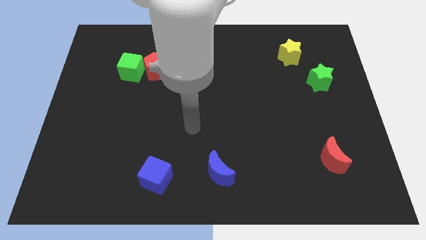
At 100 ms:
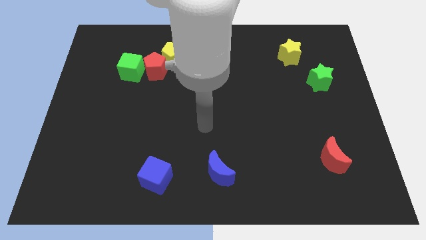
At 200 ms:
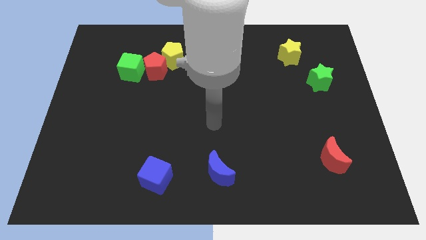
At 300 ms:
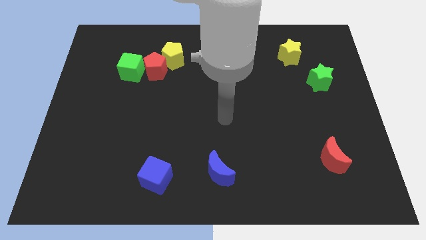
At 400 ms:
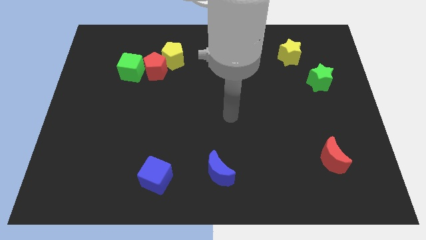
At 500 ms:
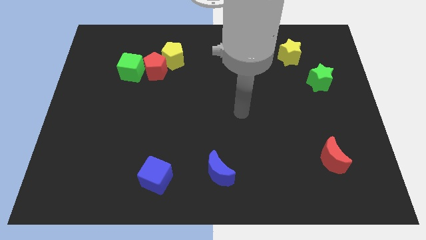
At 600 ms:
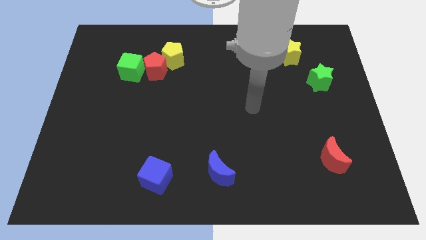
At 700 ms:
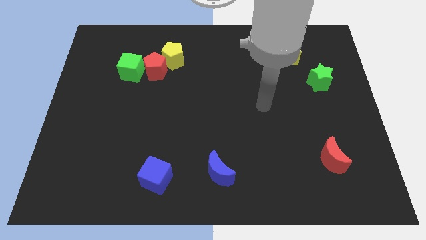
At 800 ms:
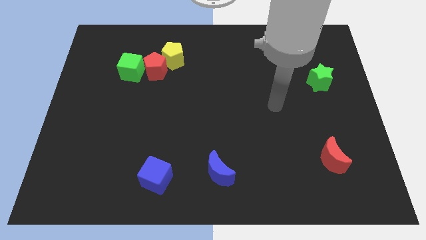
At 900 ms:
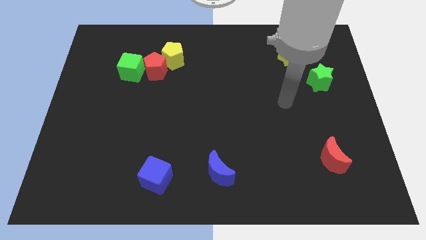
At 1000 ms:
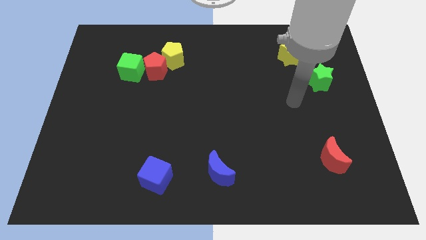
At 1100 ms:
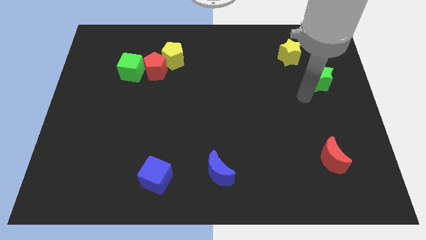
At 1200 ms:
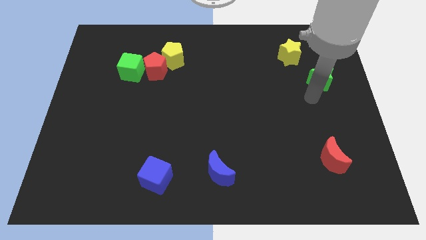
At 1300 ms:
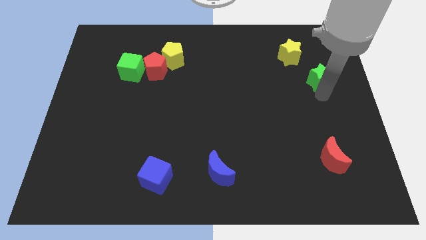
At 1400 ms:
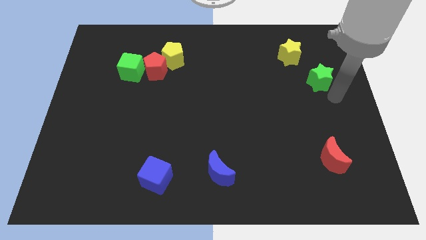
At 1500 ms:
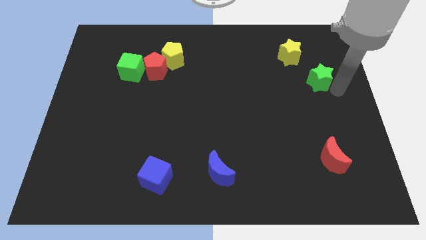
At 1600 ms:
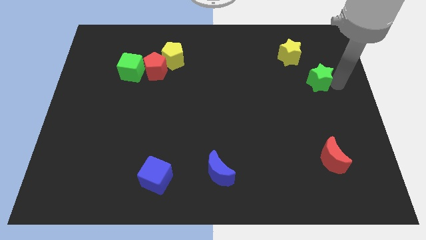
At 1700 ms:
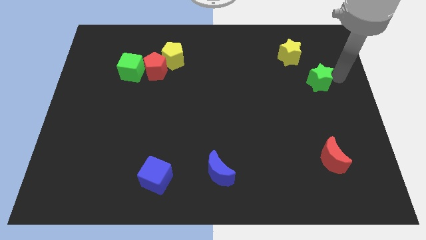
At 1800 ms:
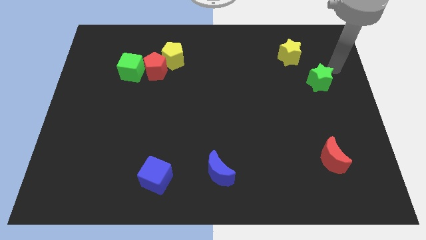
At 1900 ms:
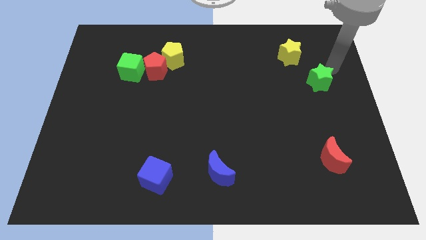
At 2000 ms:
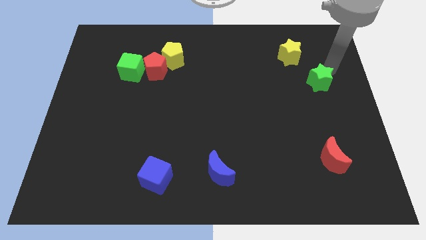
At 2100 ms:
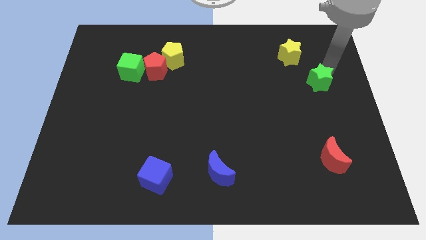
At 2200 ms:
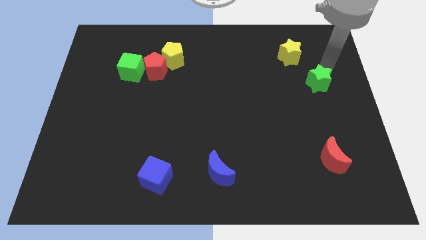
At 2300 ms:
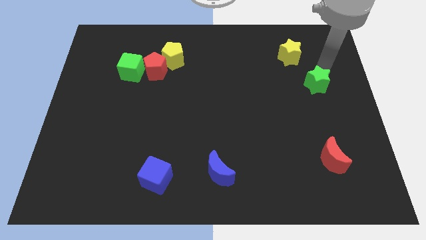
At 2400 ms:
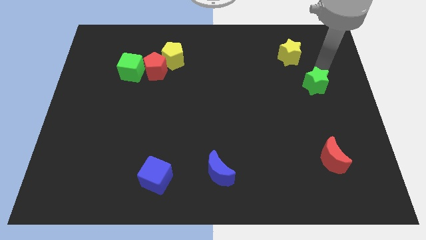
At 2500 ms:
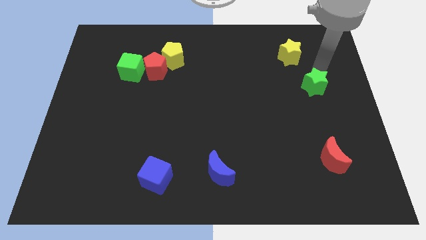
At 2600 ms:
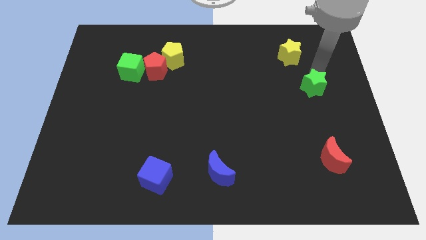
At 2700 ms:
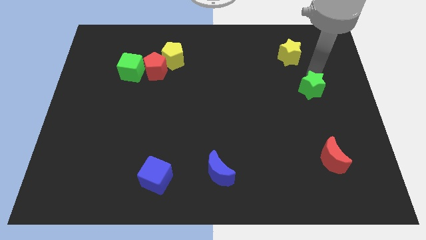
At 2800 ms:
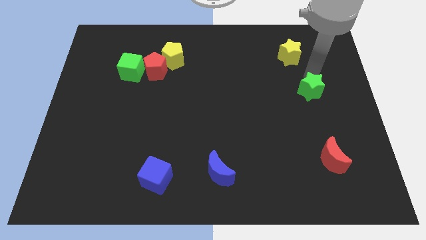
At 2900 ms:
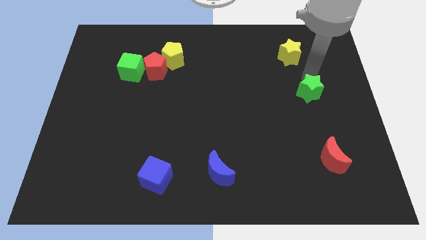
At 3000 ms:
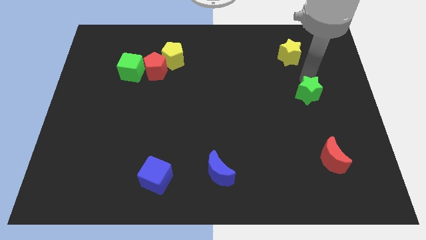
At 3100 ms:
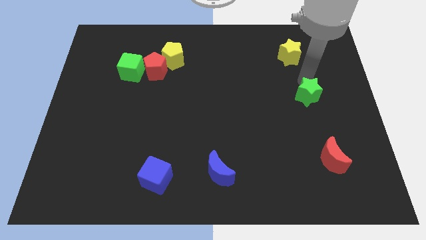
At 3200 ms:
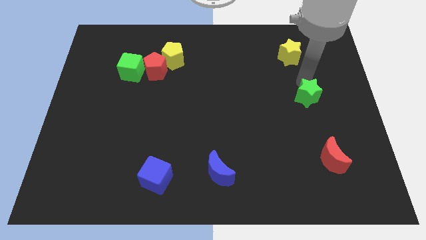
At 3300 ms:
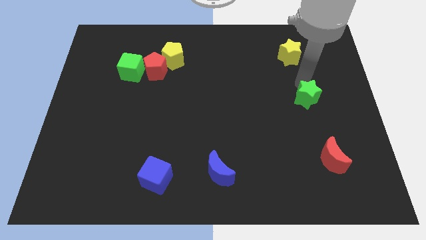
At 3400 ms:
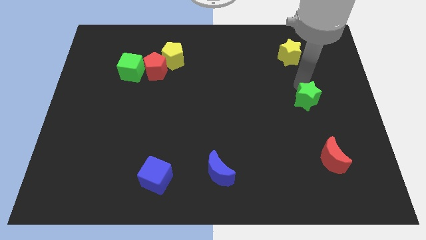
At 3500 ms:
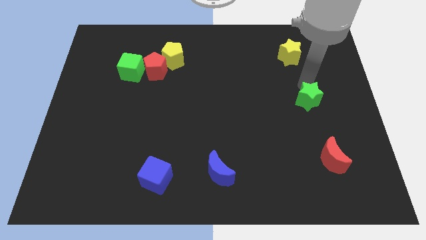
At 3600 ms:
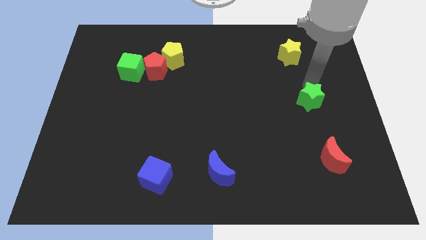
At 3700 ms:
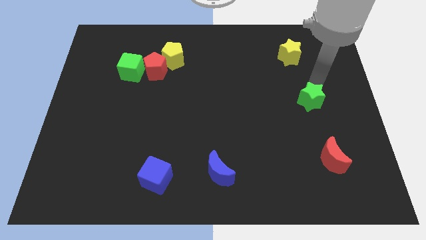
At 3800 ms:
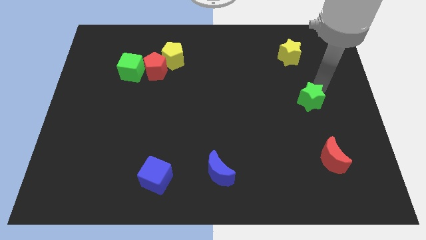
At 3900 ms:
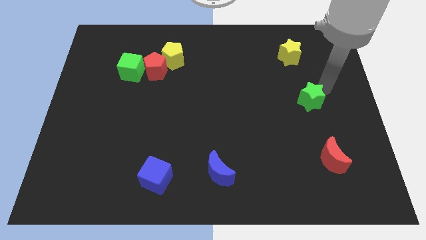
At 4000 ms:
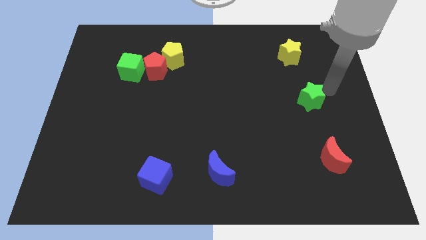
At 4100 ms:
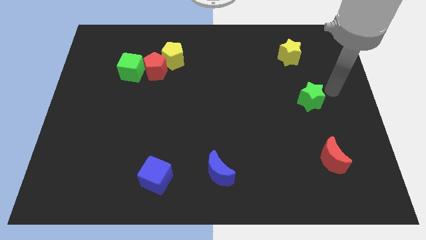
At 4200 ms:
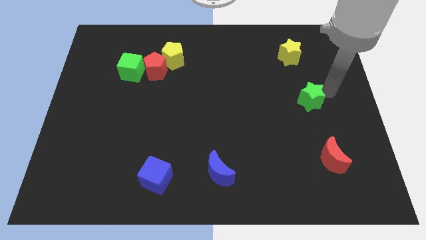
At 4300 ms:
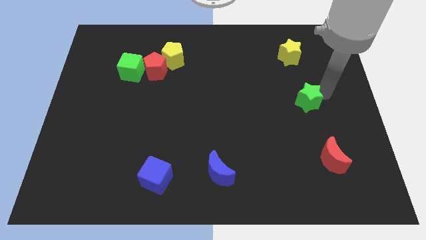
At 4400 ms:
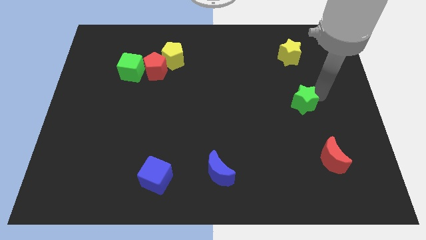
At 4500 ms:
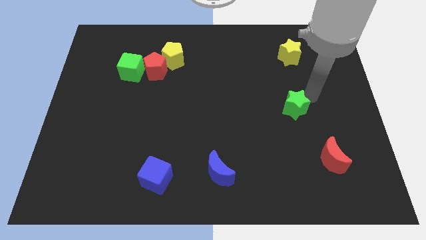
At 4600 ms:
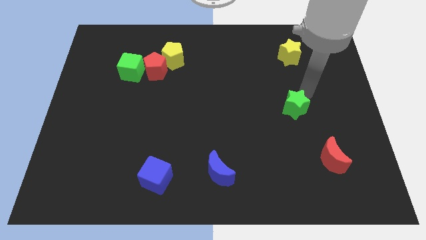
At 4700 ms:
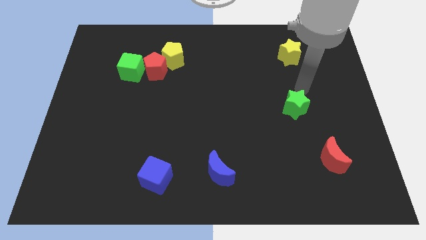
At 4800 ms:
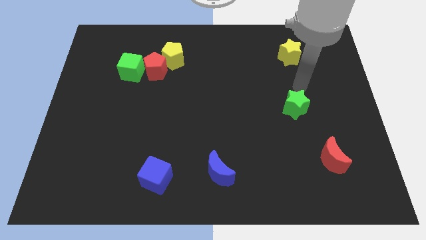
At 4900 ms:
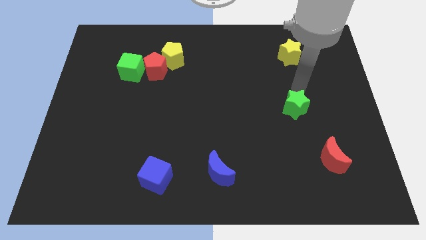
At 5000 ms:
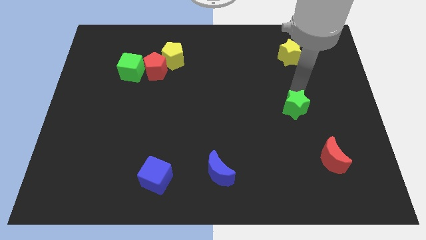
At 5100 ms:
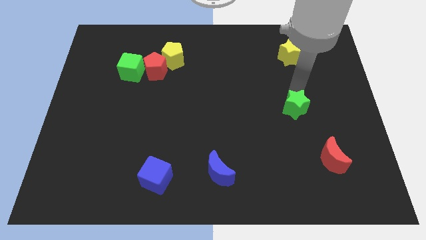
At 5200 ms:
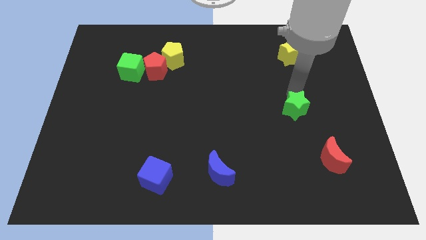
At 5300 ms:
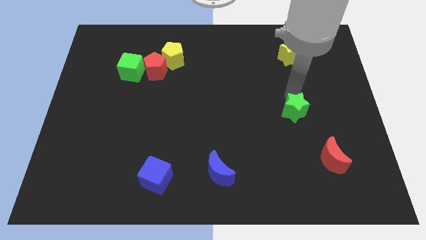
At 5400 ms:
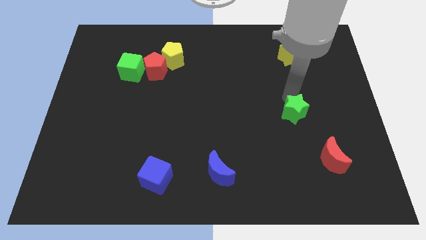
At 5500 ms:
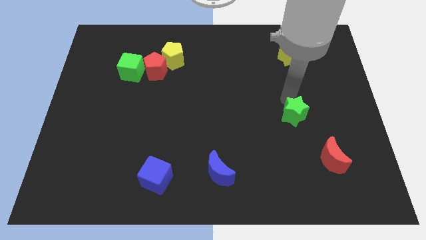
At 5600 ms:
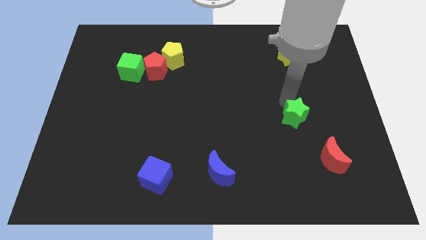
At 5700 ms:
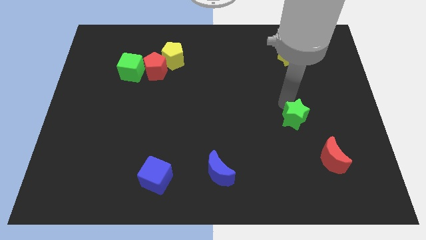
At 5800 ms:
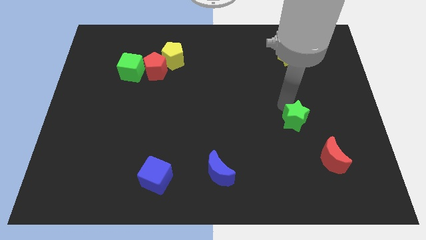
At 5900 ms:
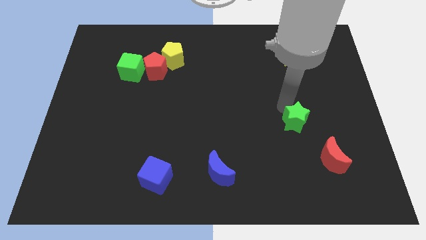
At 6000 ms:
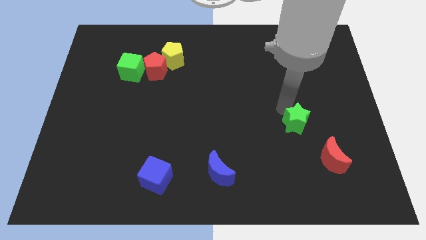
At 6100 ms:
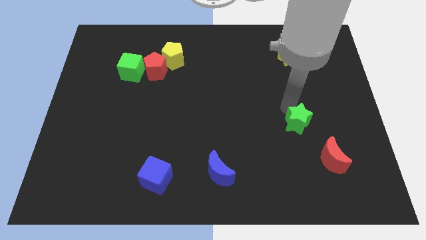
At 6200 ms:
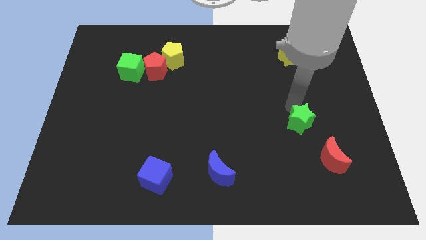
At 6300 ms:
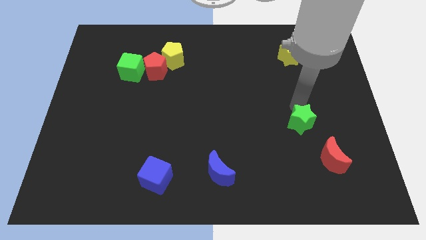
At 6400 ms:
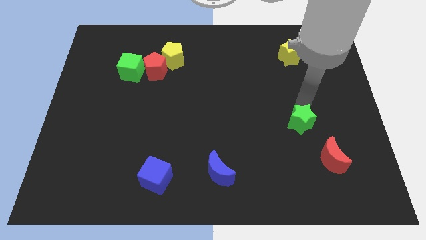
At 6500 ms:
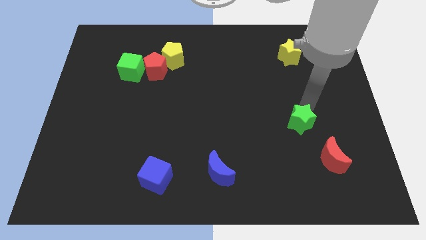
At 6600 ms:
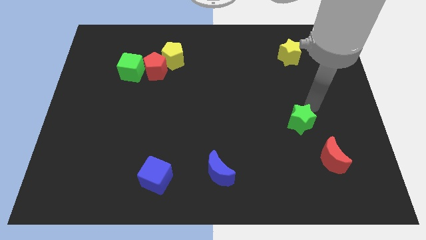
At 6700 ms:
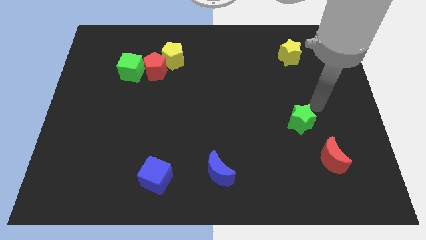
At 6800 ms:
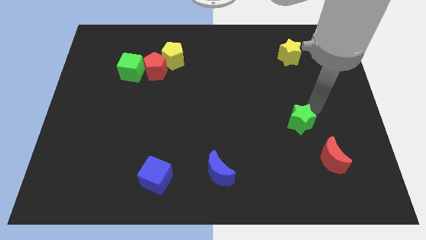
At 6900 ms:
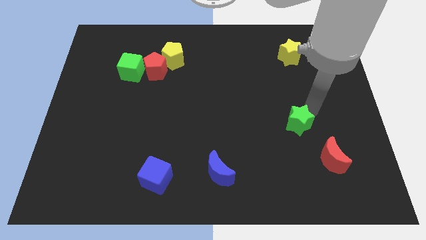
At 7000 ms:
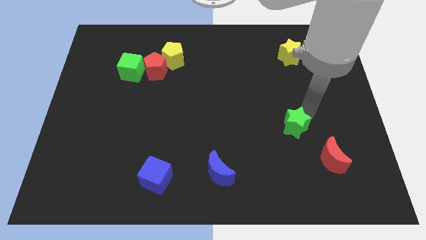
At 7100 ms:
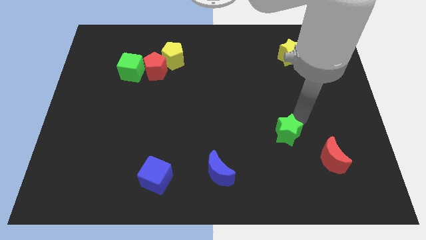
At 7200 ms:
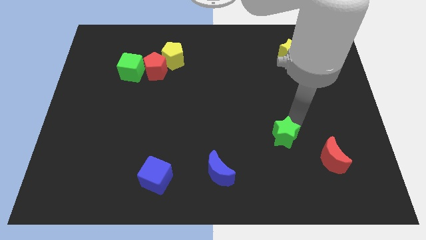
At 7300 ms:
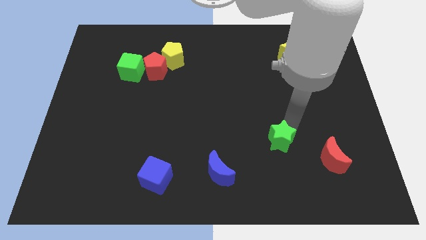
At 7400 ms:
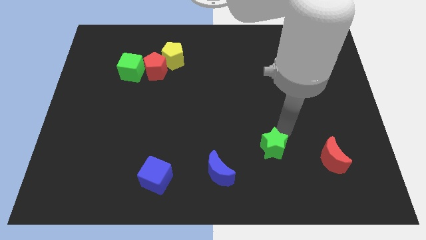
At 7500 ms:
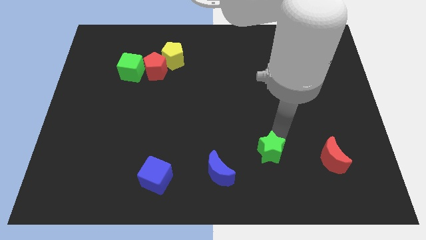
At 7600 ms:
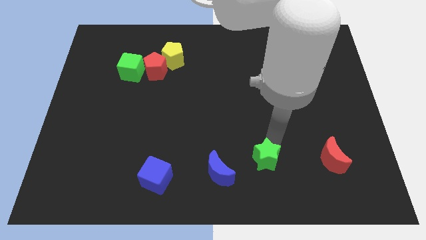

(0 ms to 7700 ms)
put the green star right of the blue moon

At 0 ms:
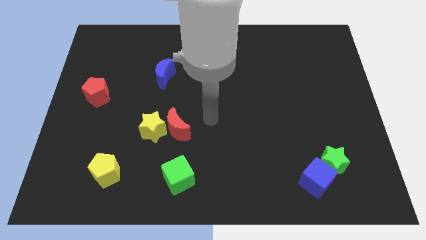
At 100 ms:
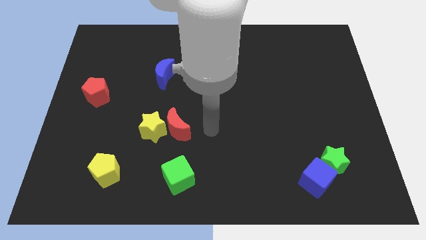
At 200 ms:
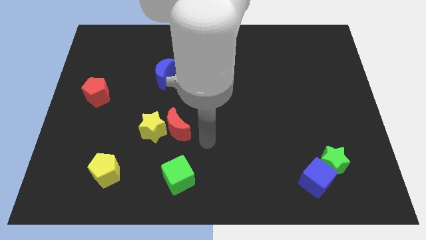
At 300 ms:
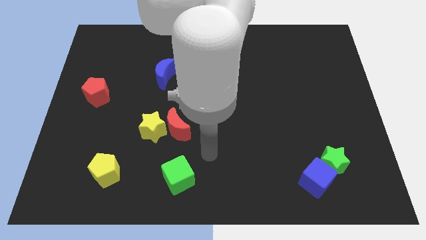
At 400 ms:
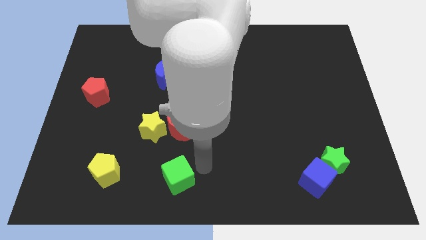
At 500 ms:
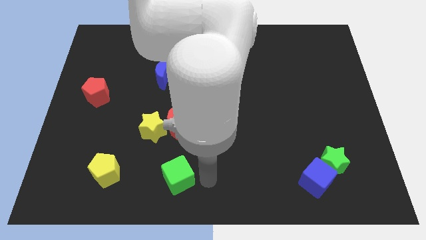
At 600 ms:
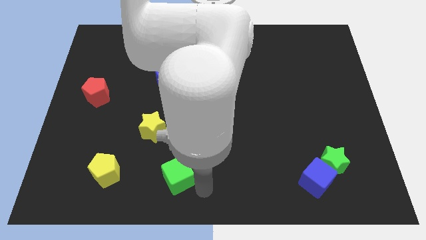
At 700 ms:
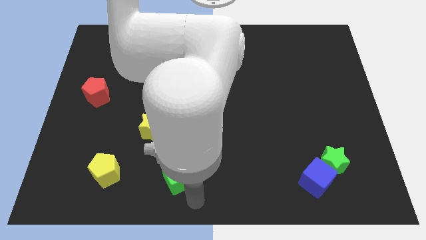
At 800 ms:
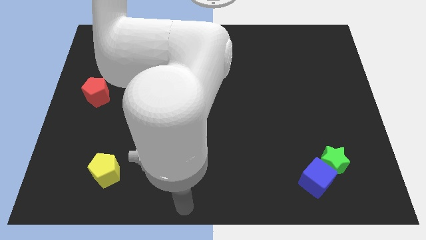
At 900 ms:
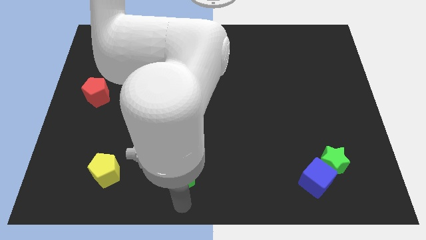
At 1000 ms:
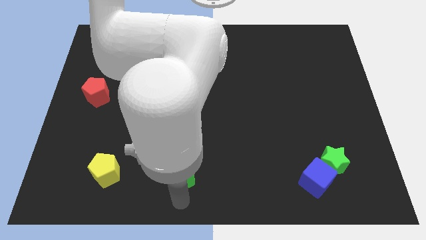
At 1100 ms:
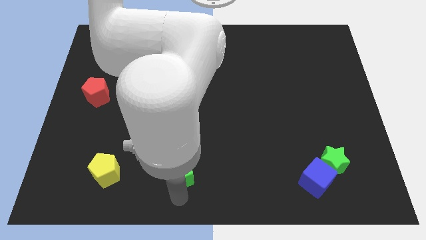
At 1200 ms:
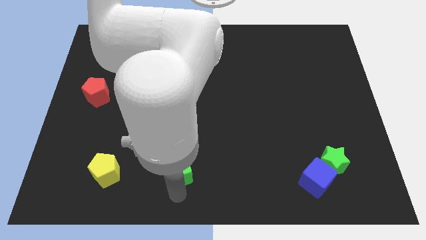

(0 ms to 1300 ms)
slide the green cube to the bottom right side of the yellow star
